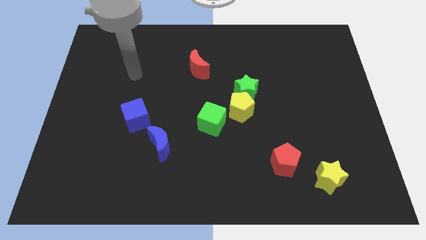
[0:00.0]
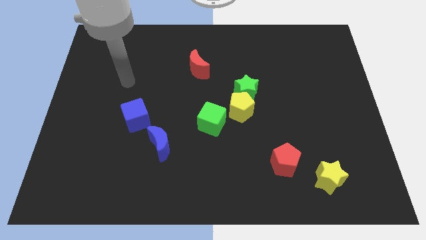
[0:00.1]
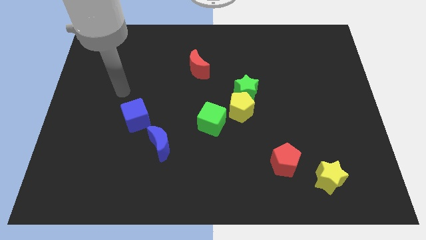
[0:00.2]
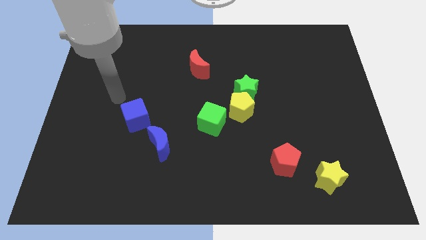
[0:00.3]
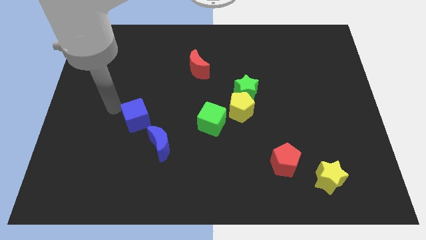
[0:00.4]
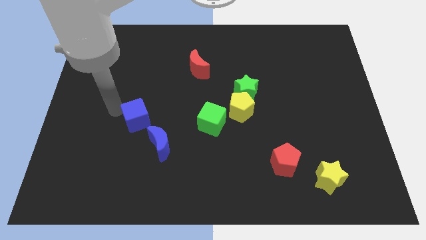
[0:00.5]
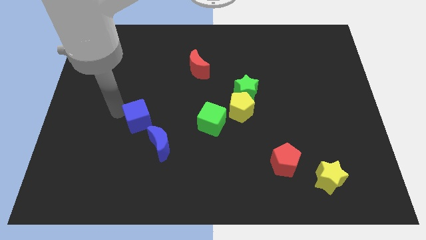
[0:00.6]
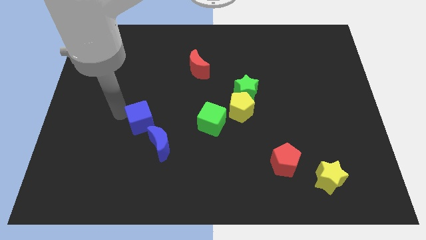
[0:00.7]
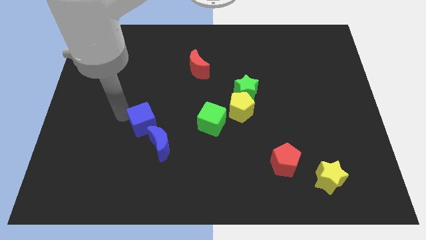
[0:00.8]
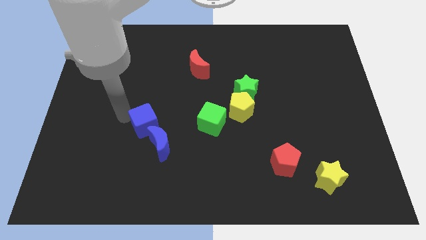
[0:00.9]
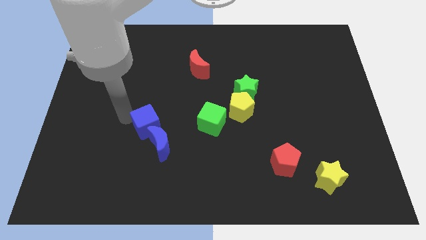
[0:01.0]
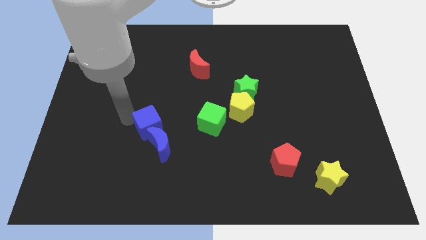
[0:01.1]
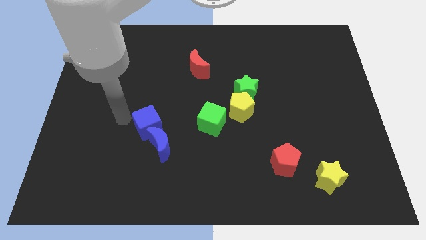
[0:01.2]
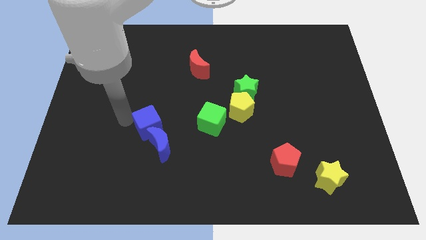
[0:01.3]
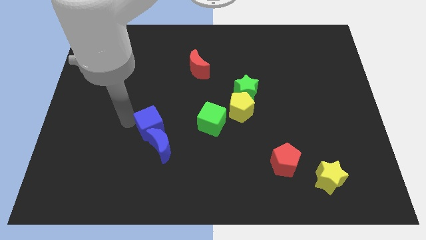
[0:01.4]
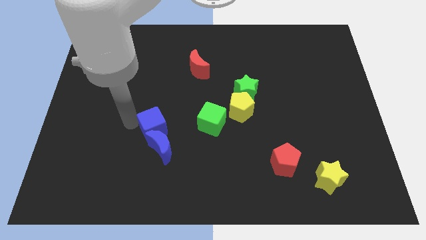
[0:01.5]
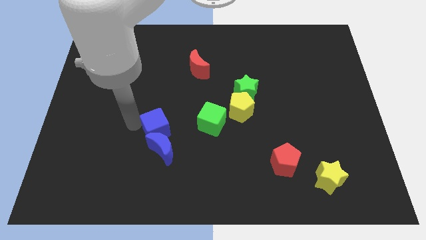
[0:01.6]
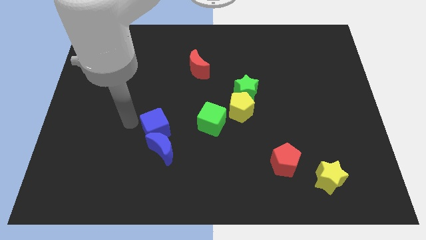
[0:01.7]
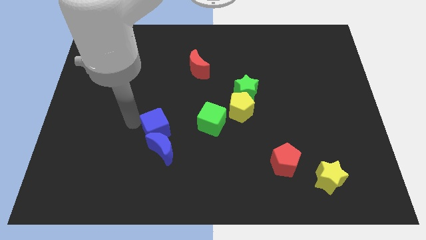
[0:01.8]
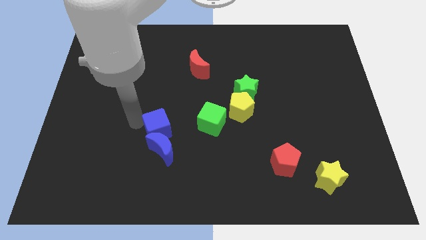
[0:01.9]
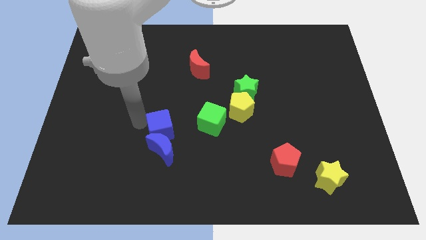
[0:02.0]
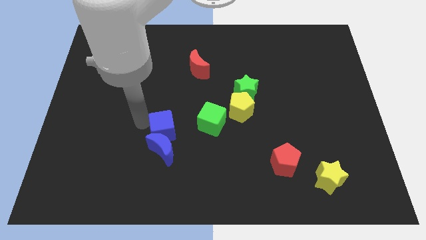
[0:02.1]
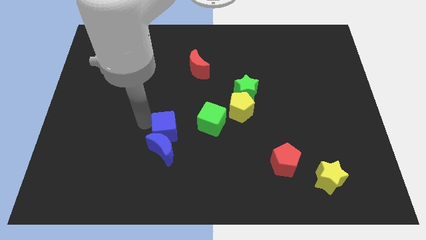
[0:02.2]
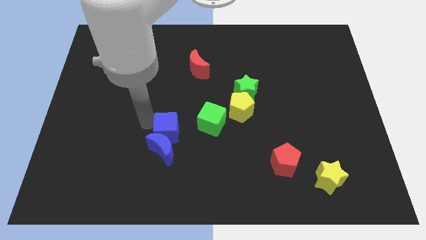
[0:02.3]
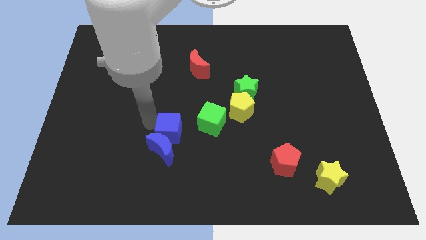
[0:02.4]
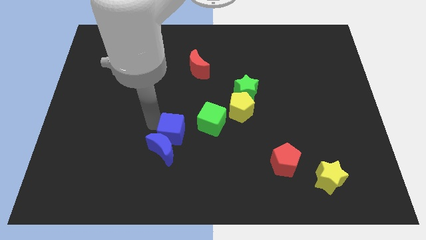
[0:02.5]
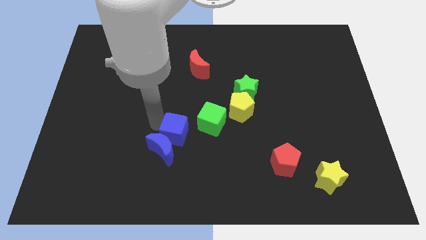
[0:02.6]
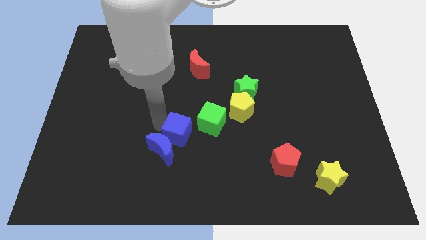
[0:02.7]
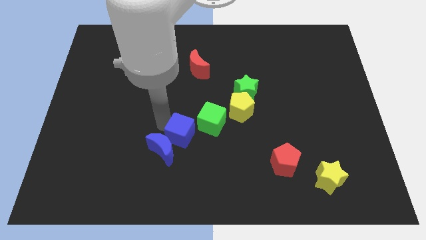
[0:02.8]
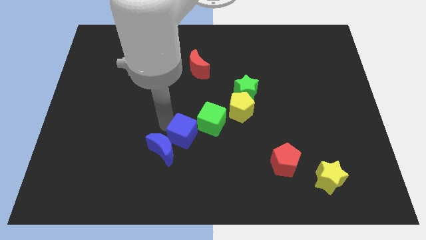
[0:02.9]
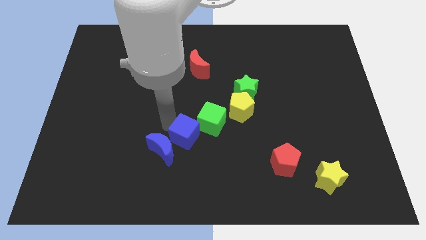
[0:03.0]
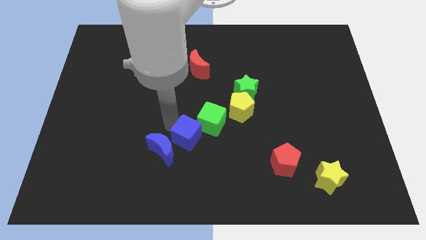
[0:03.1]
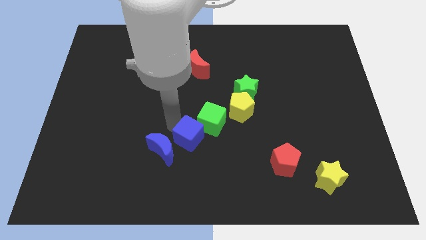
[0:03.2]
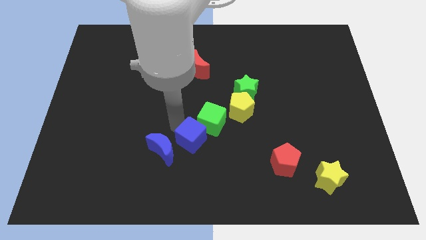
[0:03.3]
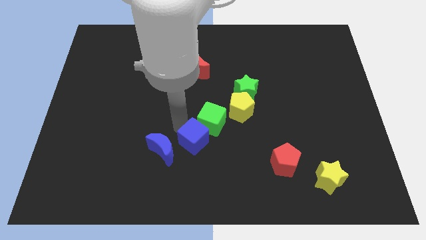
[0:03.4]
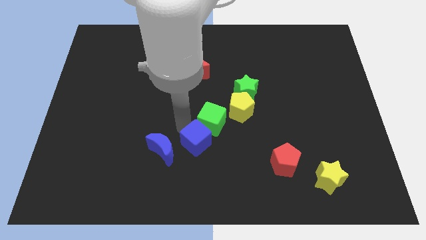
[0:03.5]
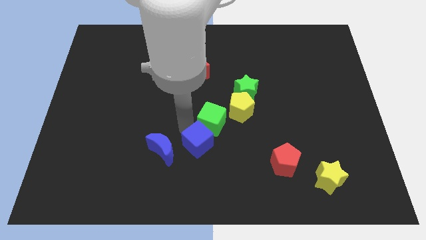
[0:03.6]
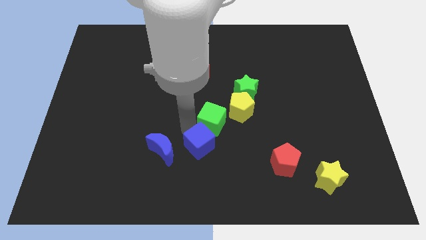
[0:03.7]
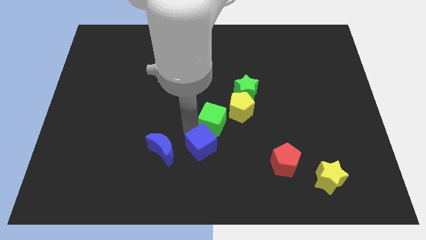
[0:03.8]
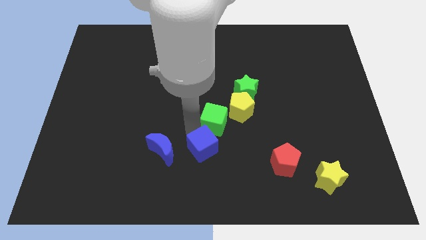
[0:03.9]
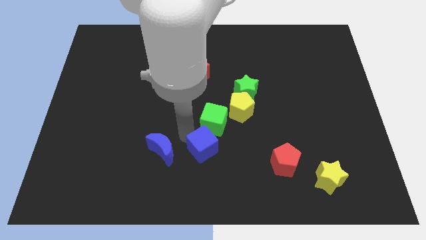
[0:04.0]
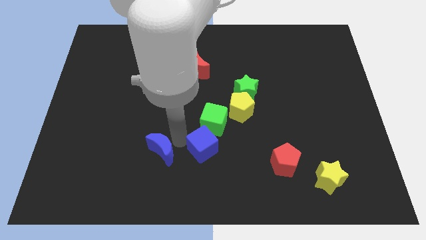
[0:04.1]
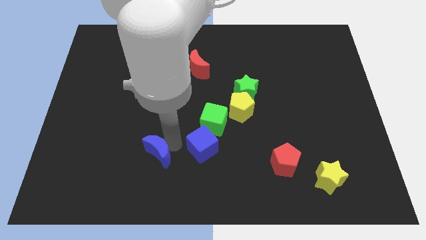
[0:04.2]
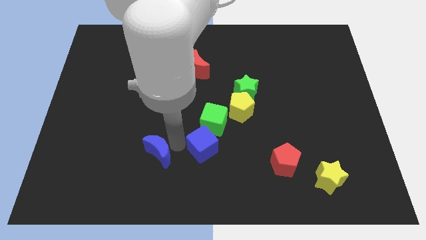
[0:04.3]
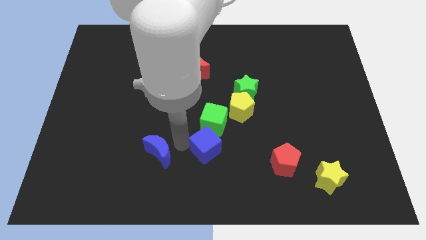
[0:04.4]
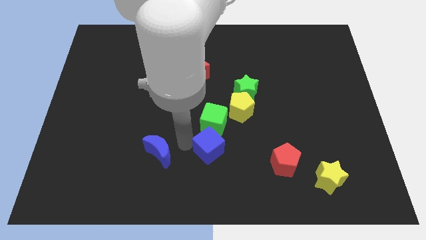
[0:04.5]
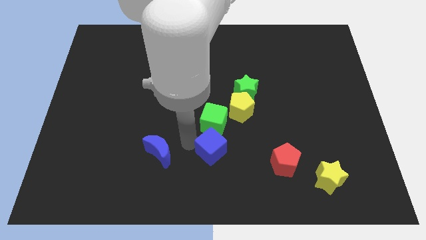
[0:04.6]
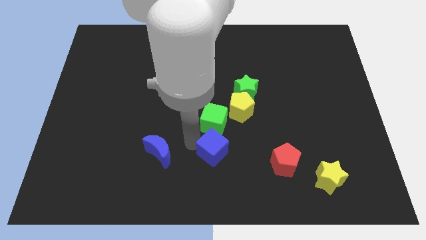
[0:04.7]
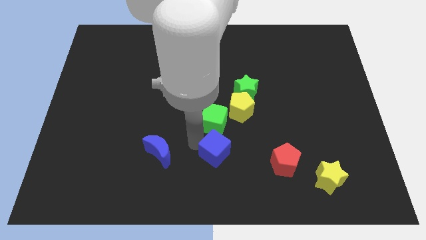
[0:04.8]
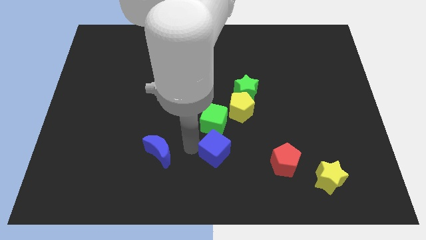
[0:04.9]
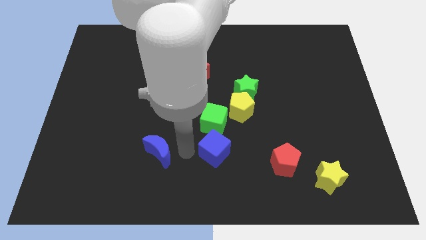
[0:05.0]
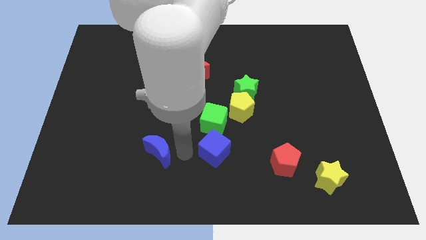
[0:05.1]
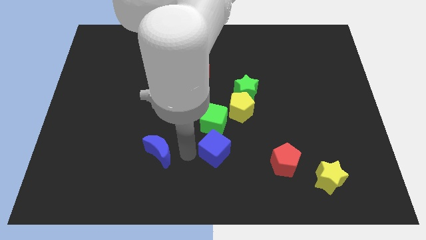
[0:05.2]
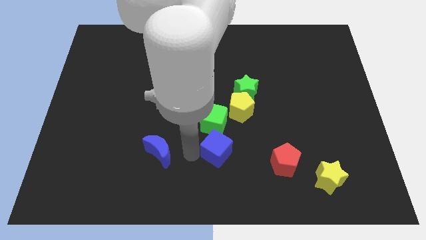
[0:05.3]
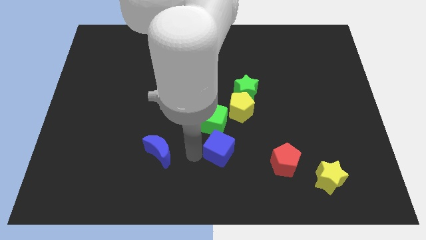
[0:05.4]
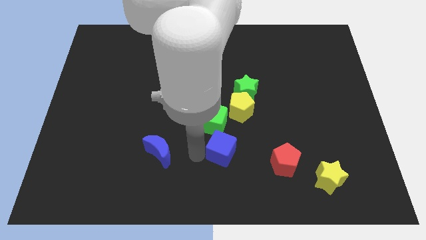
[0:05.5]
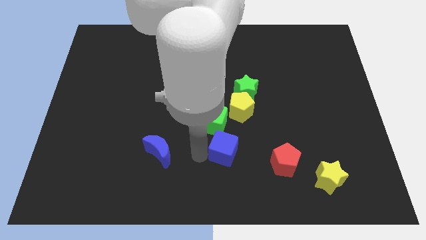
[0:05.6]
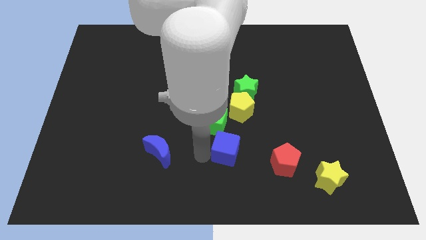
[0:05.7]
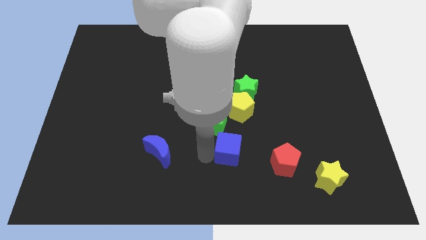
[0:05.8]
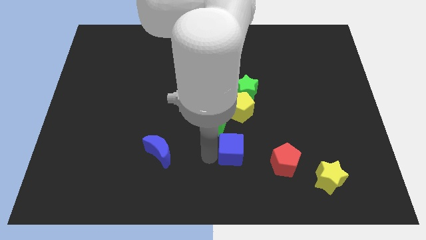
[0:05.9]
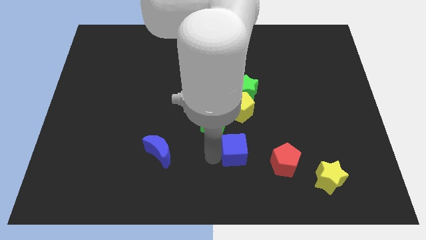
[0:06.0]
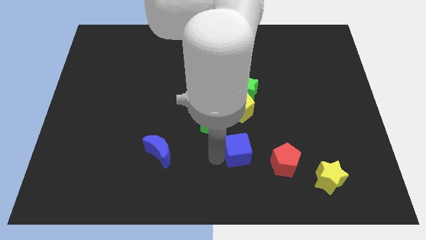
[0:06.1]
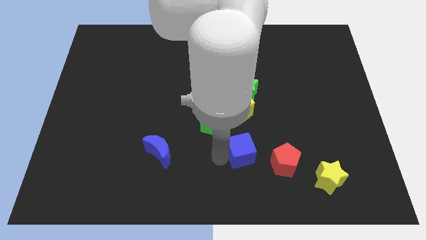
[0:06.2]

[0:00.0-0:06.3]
push the blue cube diagonally up and to the left of the red pentagon

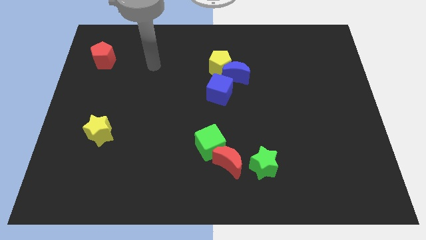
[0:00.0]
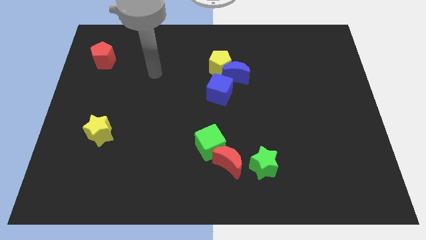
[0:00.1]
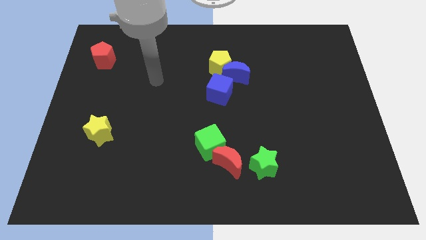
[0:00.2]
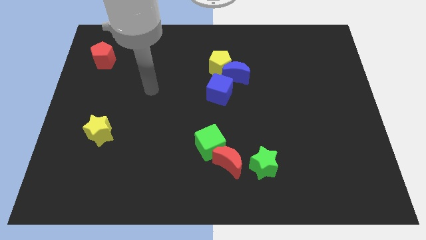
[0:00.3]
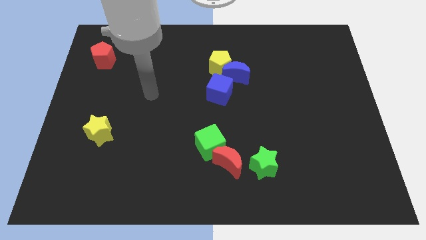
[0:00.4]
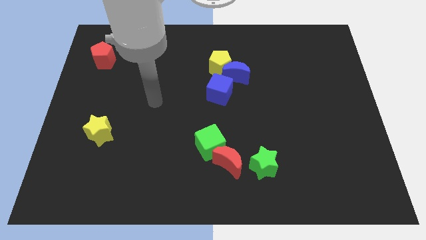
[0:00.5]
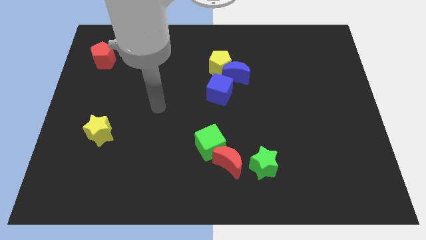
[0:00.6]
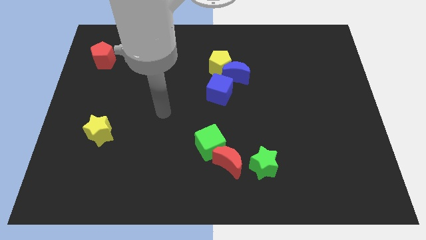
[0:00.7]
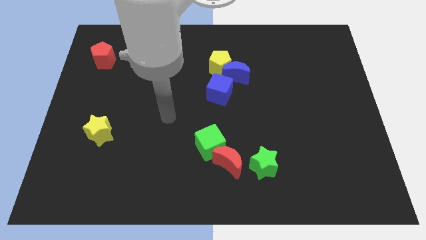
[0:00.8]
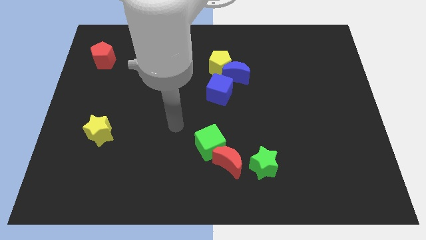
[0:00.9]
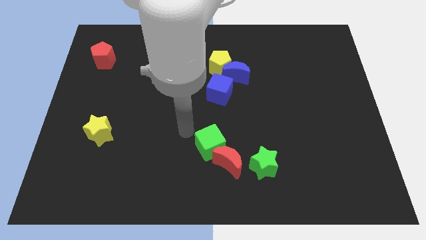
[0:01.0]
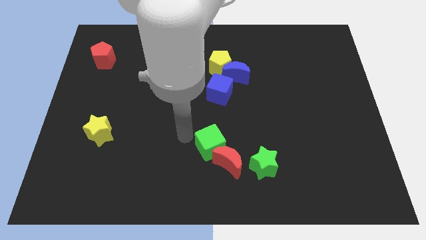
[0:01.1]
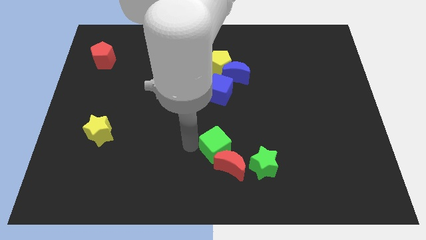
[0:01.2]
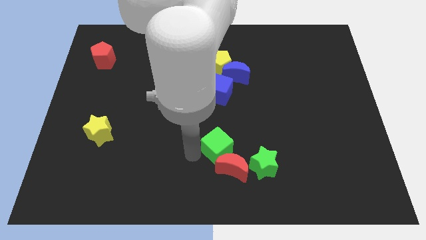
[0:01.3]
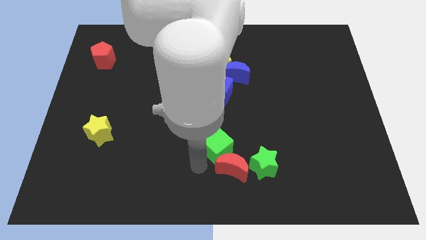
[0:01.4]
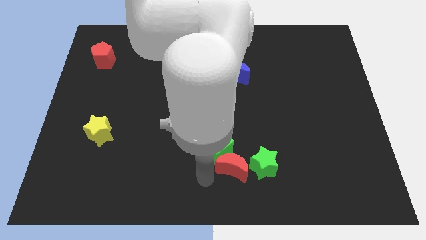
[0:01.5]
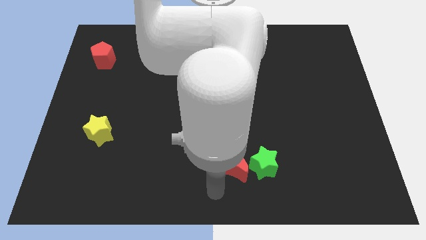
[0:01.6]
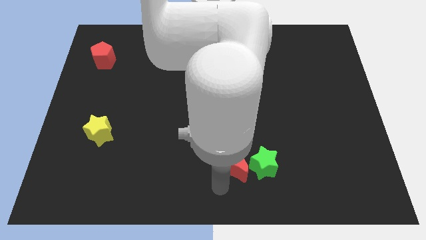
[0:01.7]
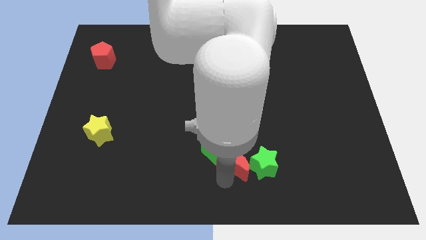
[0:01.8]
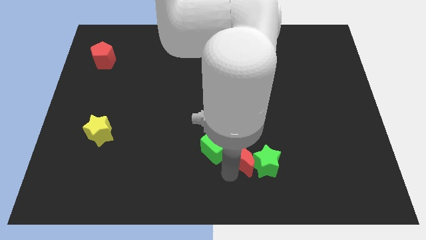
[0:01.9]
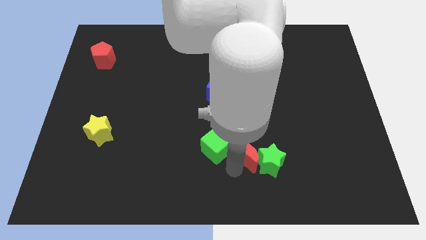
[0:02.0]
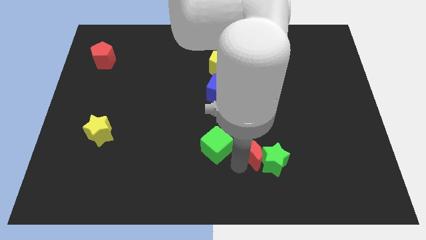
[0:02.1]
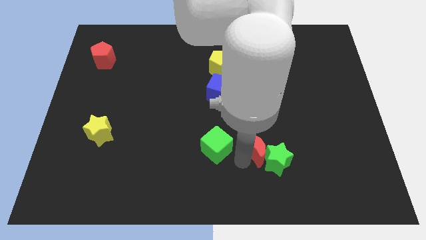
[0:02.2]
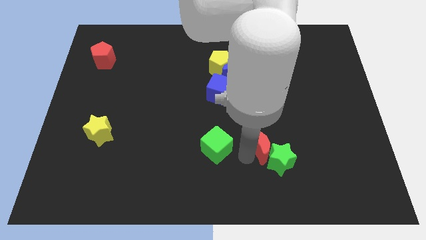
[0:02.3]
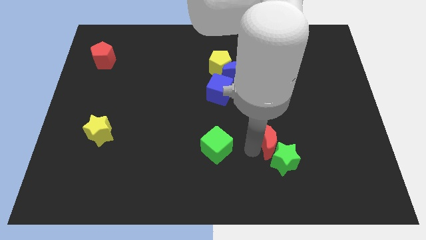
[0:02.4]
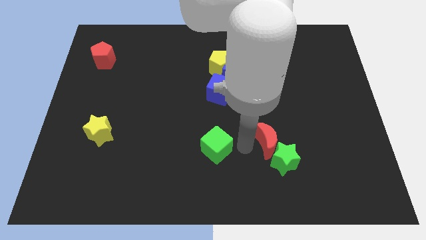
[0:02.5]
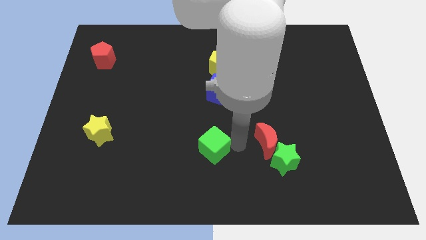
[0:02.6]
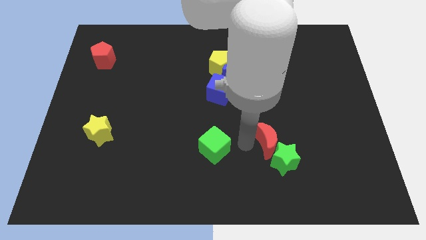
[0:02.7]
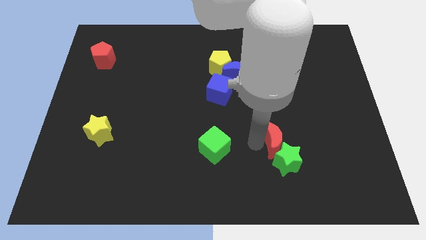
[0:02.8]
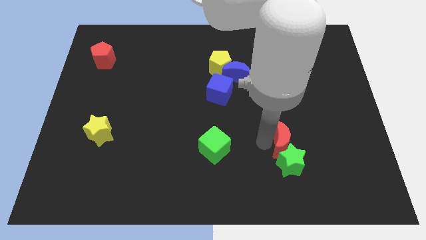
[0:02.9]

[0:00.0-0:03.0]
push the red moon diagonally up and to the right of the green star
